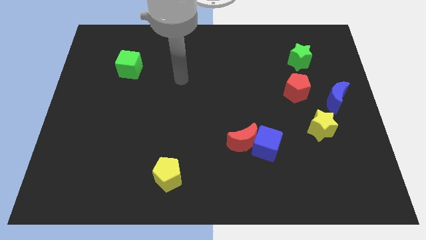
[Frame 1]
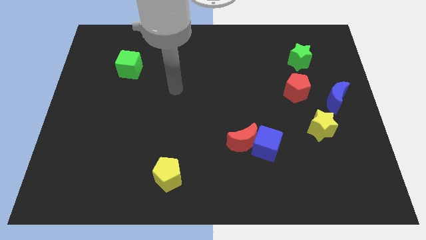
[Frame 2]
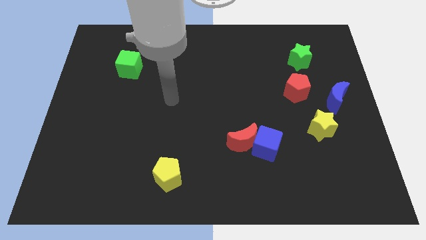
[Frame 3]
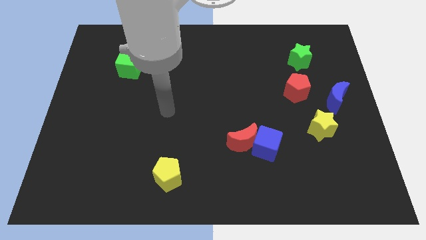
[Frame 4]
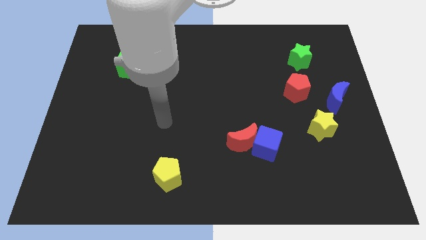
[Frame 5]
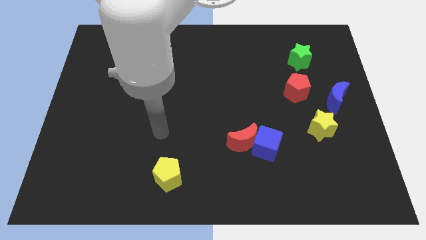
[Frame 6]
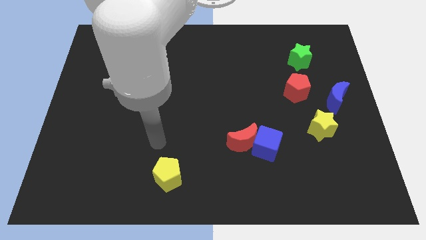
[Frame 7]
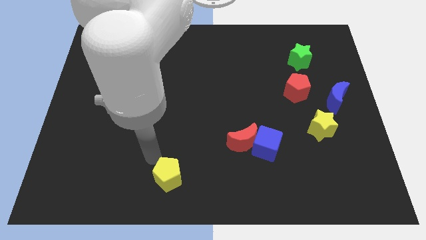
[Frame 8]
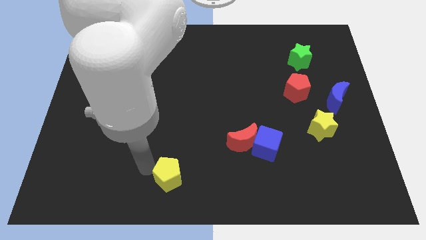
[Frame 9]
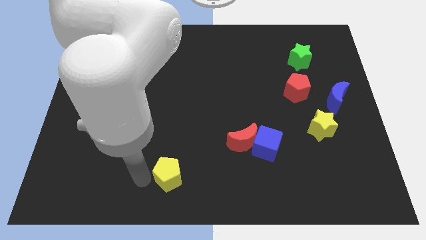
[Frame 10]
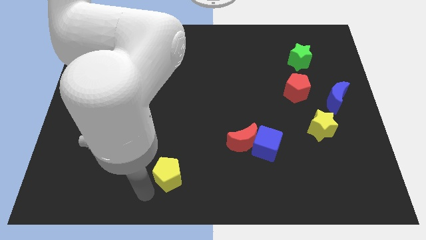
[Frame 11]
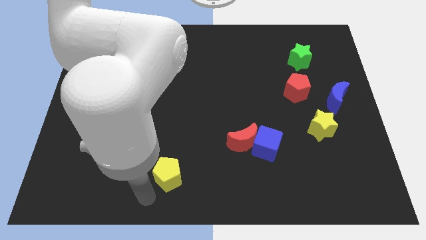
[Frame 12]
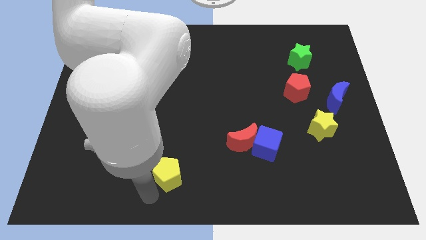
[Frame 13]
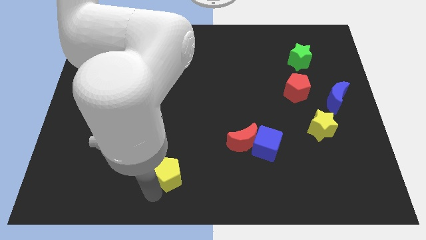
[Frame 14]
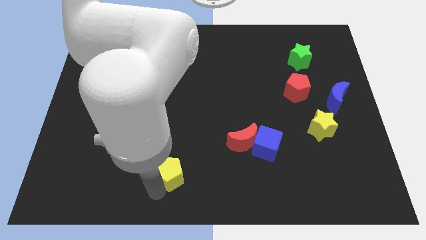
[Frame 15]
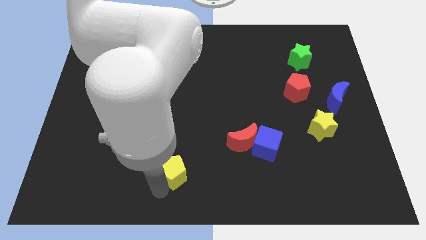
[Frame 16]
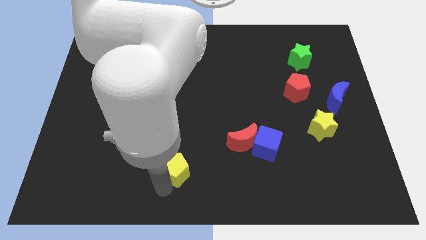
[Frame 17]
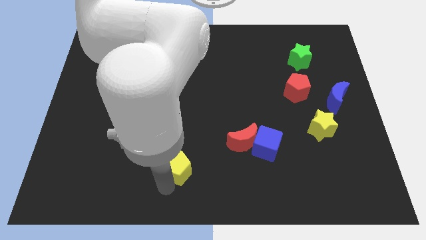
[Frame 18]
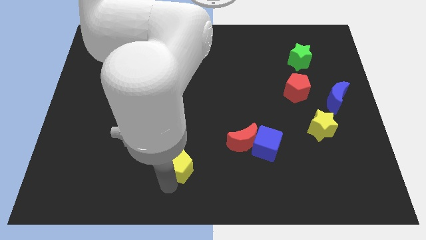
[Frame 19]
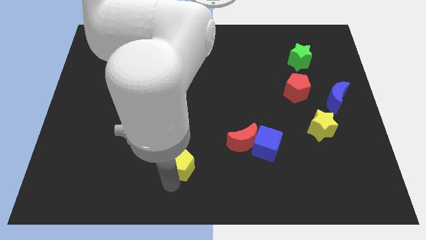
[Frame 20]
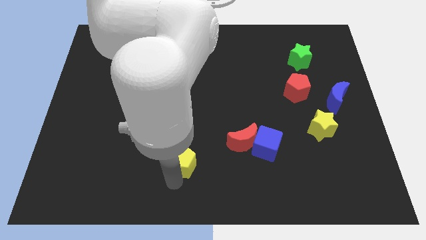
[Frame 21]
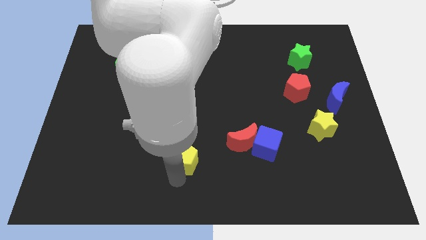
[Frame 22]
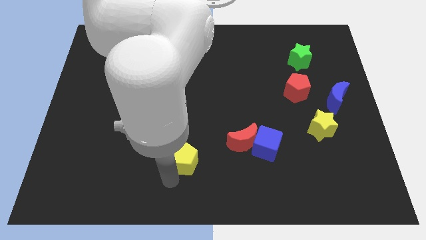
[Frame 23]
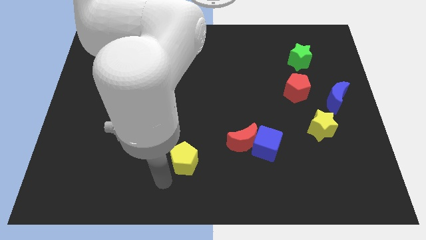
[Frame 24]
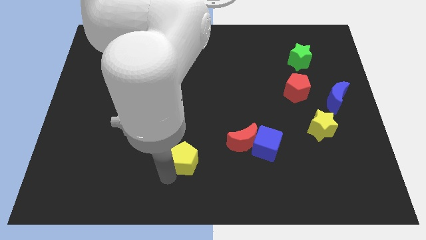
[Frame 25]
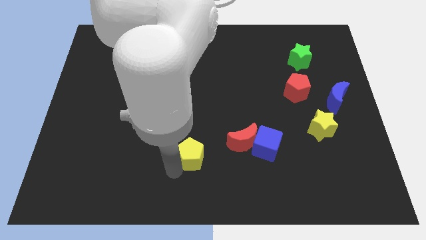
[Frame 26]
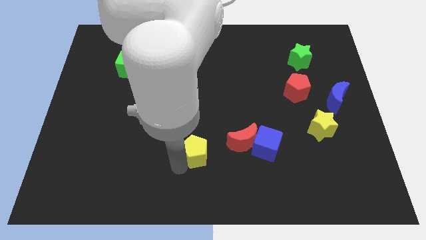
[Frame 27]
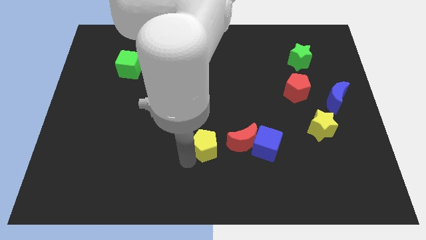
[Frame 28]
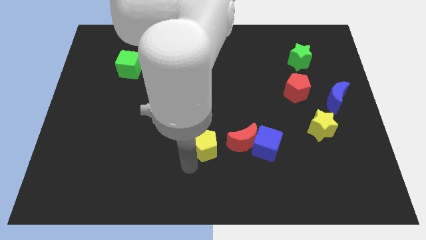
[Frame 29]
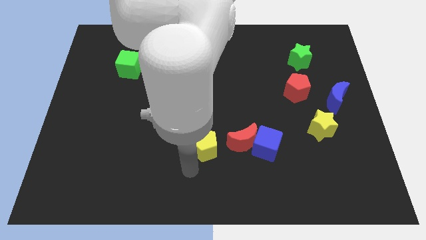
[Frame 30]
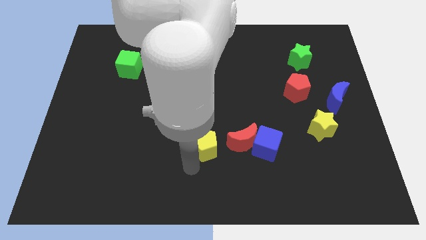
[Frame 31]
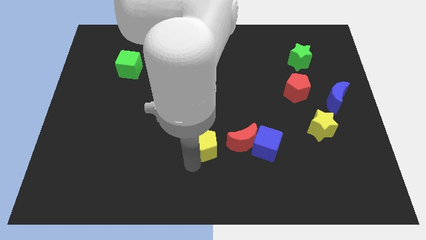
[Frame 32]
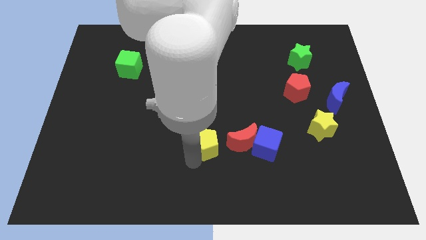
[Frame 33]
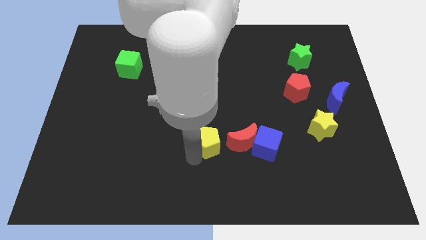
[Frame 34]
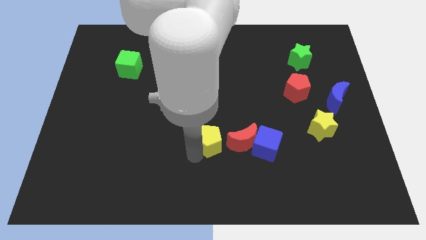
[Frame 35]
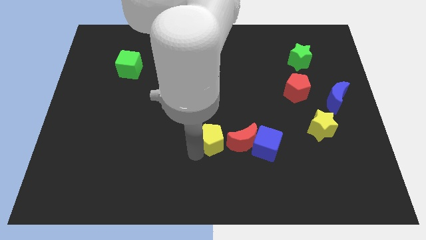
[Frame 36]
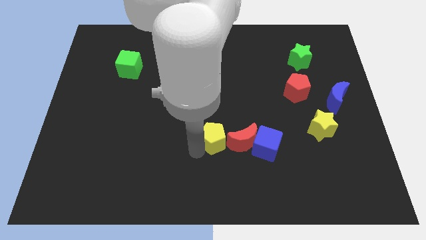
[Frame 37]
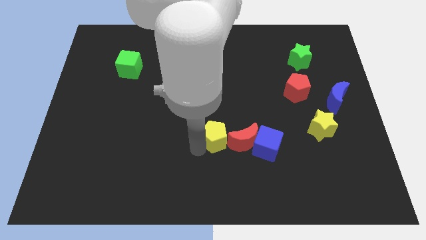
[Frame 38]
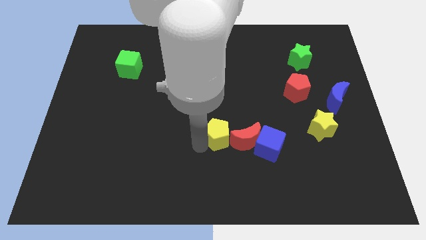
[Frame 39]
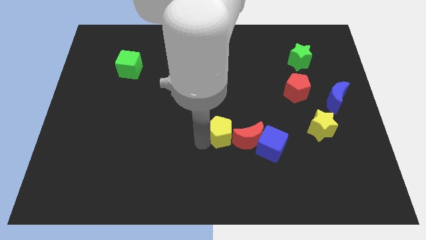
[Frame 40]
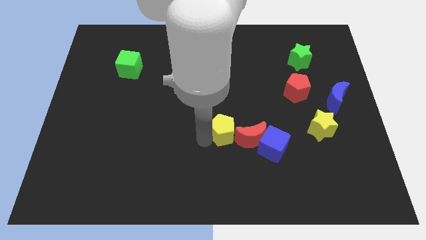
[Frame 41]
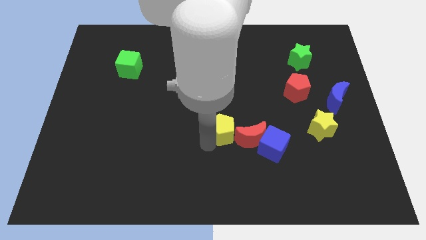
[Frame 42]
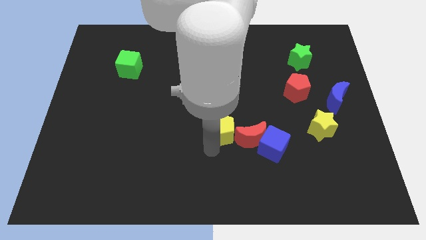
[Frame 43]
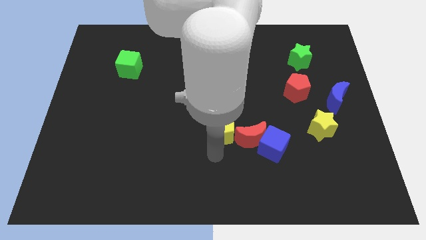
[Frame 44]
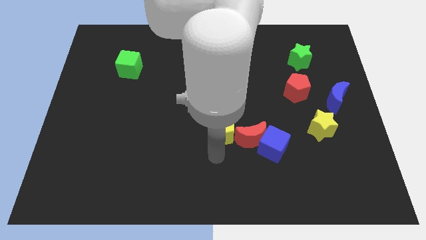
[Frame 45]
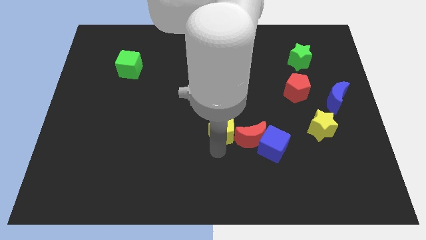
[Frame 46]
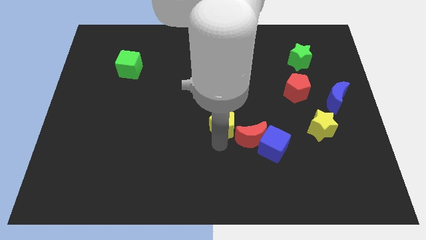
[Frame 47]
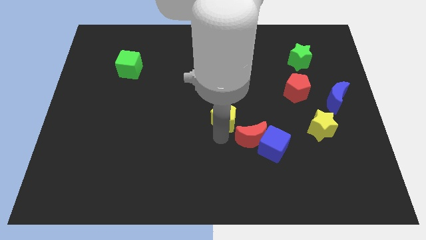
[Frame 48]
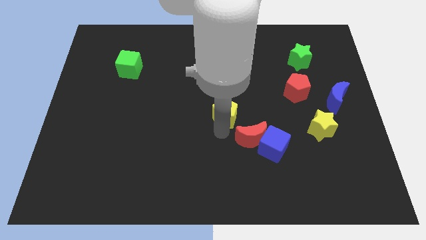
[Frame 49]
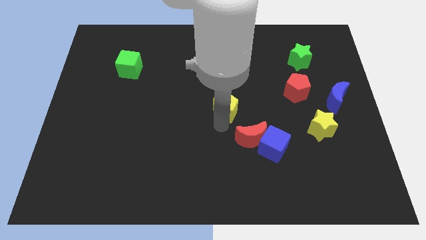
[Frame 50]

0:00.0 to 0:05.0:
move the yellow pentagon up and to the right diagonally

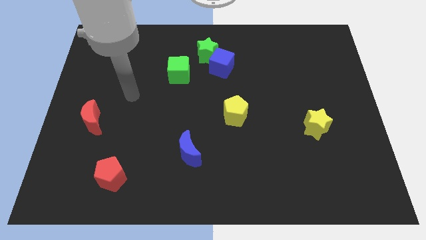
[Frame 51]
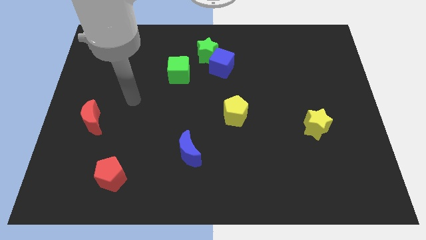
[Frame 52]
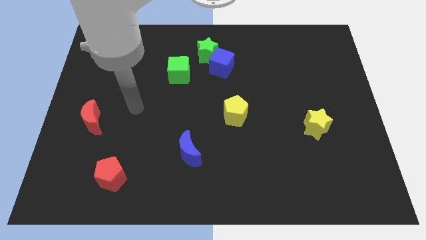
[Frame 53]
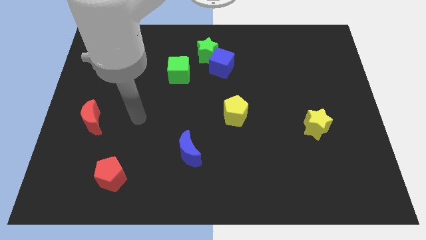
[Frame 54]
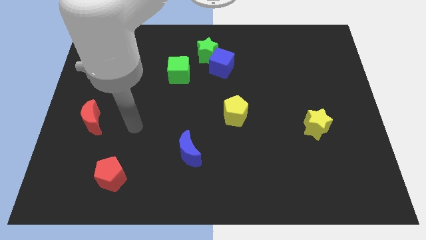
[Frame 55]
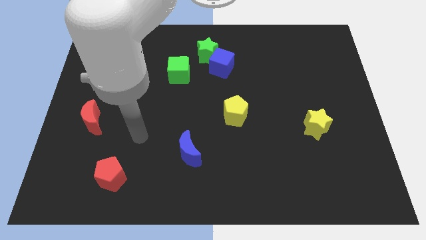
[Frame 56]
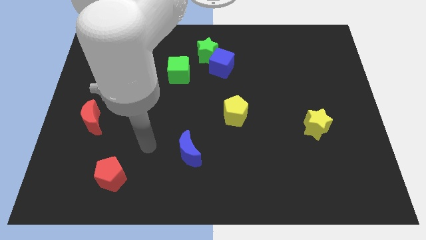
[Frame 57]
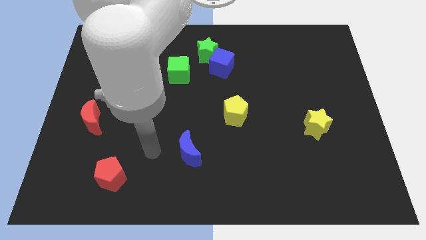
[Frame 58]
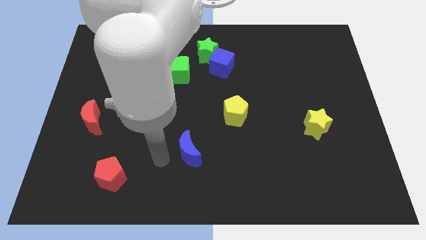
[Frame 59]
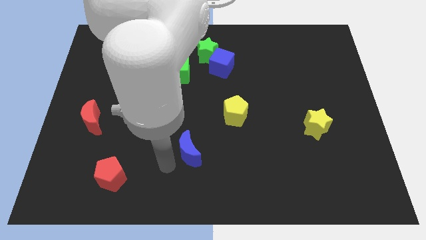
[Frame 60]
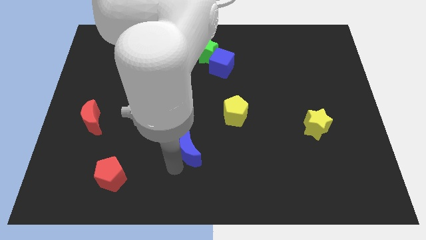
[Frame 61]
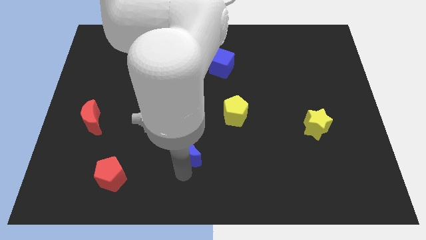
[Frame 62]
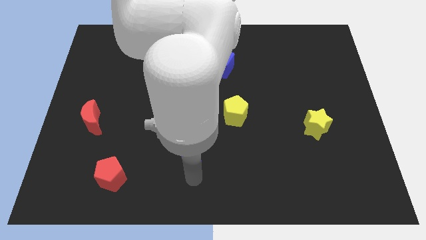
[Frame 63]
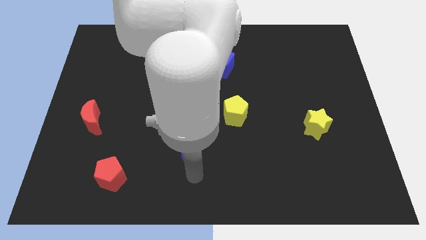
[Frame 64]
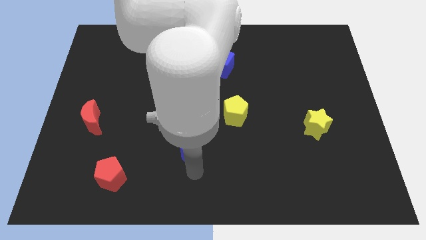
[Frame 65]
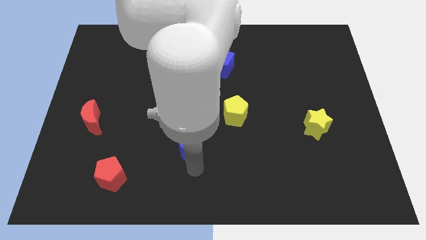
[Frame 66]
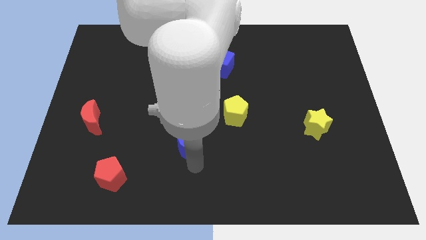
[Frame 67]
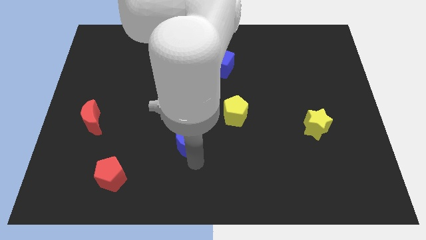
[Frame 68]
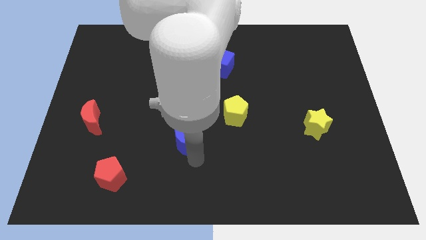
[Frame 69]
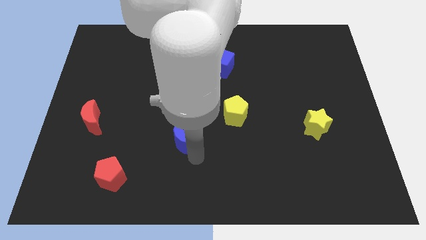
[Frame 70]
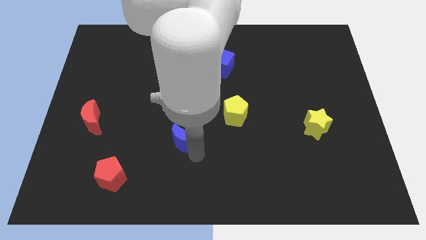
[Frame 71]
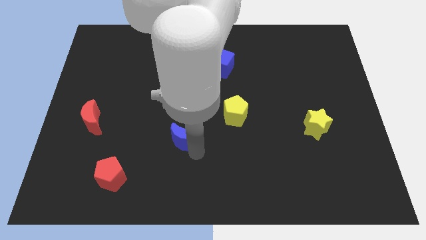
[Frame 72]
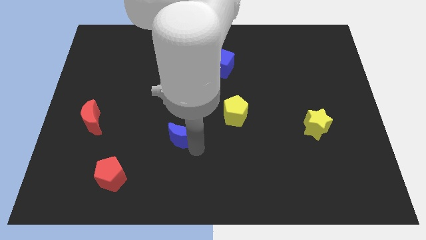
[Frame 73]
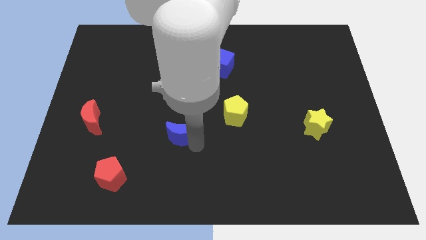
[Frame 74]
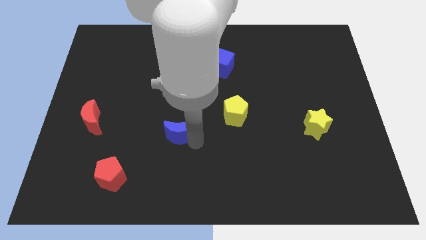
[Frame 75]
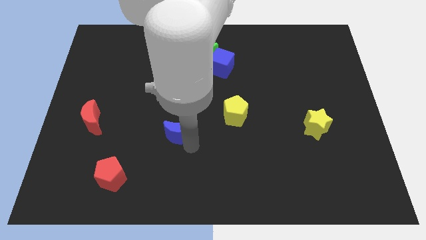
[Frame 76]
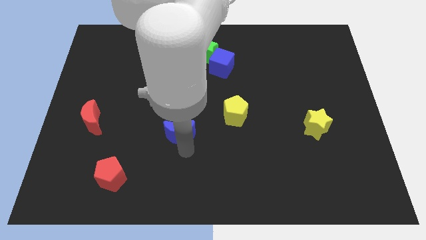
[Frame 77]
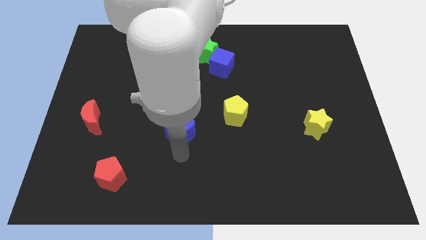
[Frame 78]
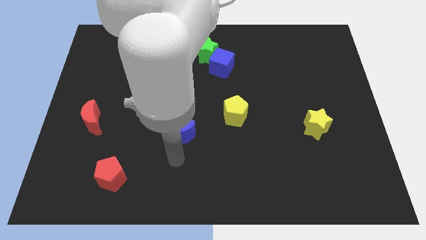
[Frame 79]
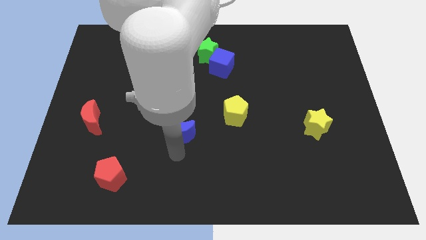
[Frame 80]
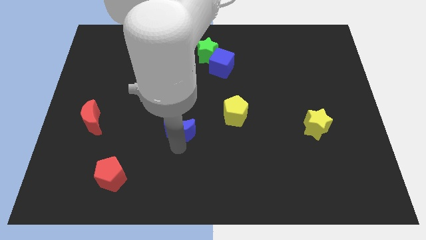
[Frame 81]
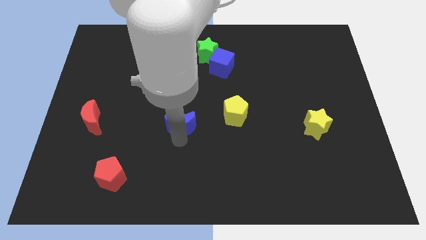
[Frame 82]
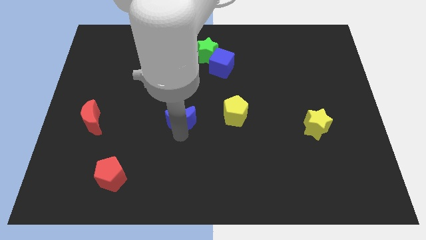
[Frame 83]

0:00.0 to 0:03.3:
slightly push the blue moon upwards

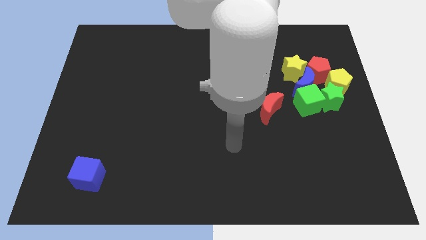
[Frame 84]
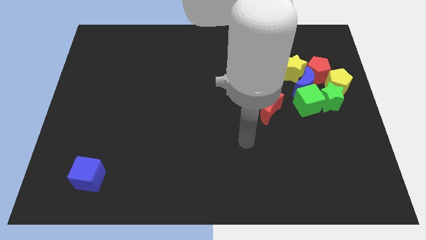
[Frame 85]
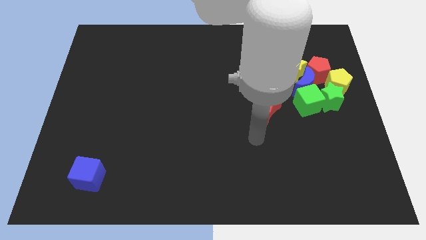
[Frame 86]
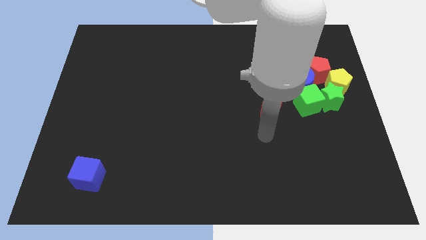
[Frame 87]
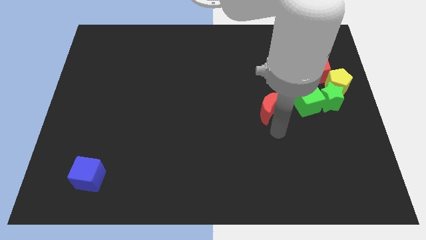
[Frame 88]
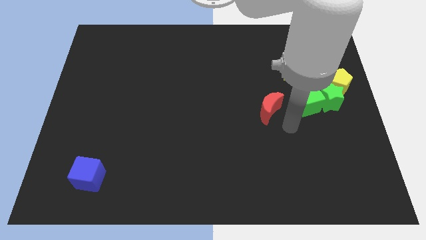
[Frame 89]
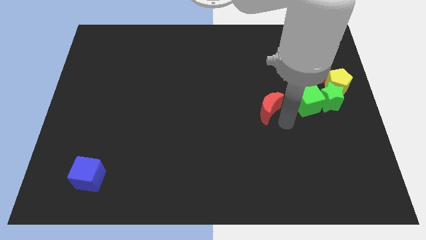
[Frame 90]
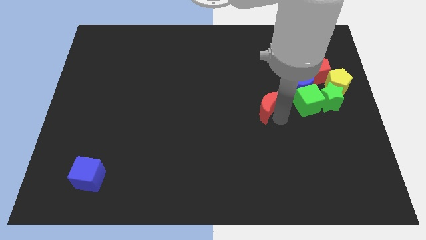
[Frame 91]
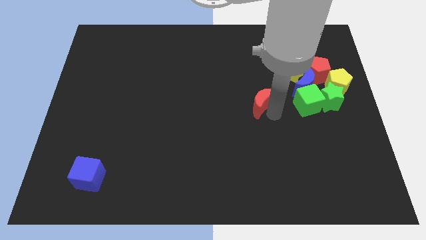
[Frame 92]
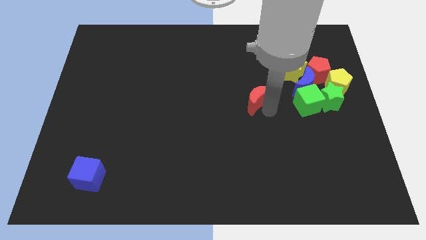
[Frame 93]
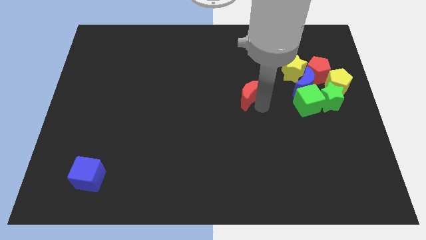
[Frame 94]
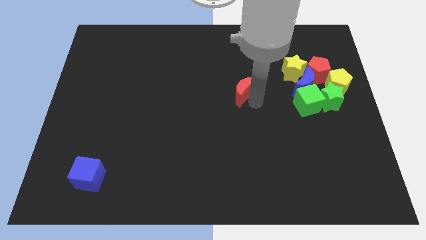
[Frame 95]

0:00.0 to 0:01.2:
slightly move the red moon upwards and left diagonally
